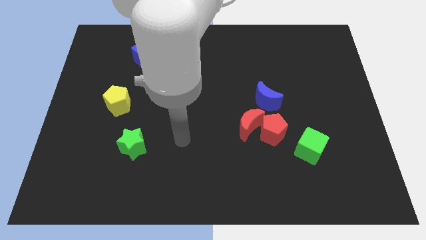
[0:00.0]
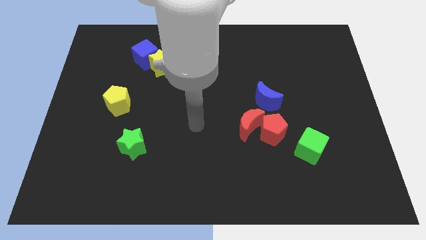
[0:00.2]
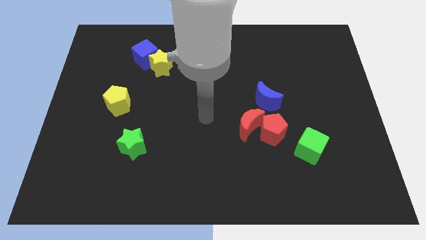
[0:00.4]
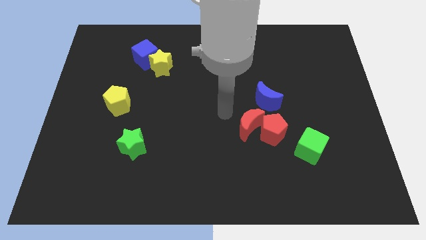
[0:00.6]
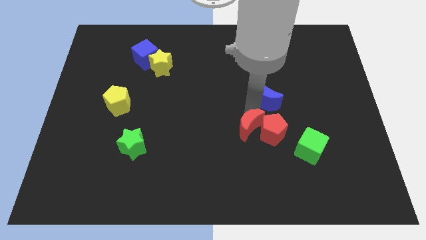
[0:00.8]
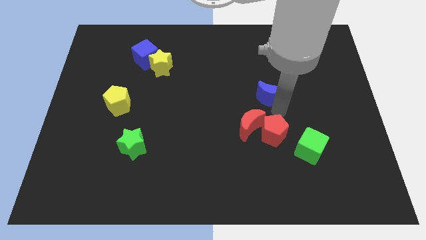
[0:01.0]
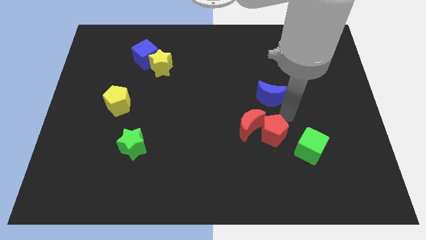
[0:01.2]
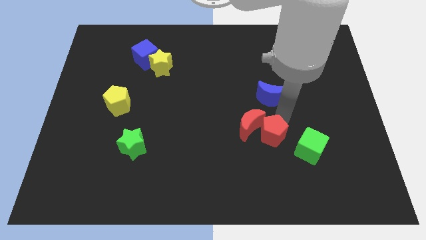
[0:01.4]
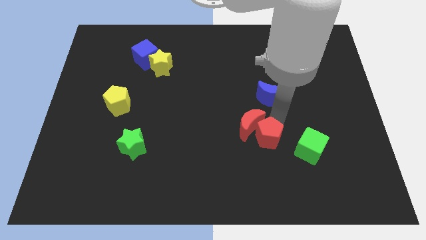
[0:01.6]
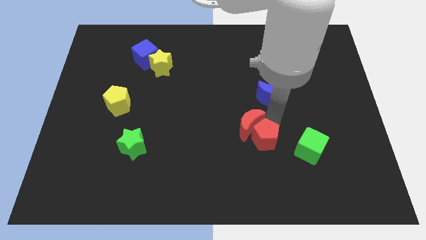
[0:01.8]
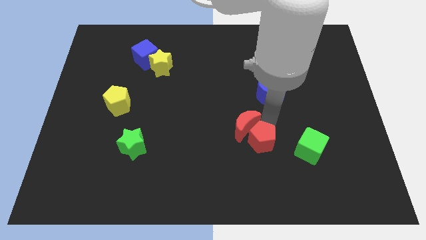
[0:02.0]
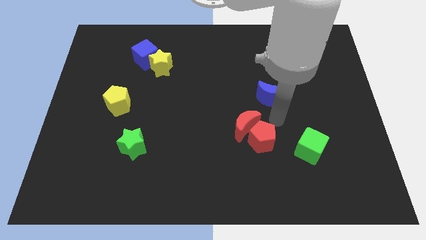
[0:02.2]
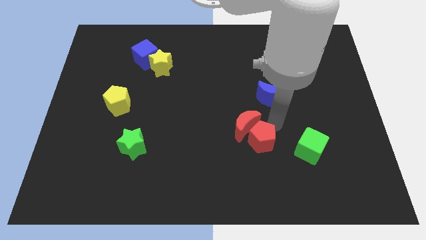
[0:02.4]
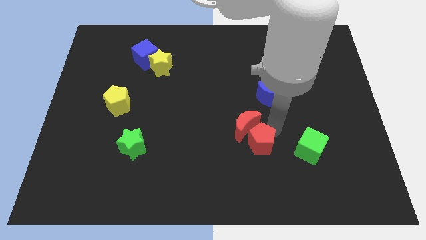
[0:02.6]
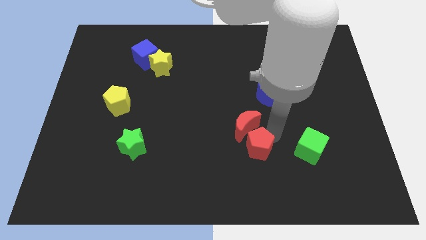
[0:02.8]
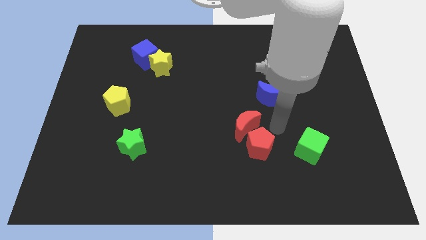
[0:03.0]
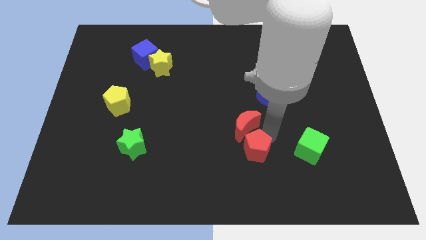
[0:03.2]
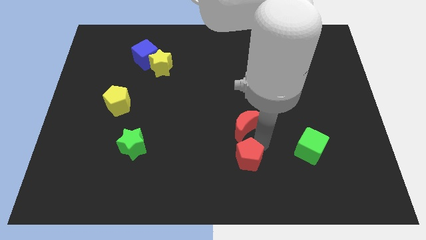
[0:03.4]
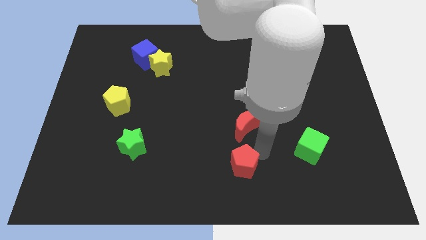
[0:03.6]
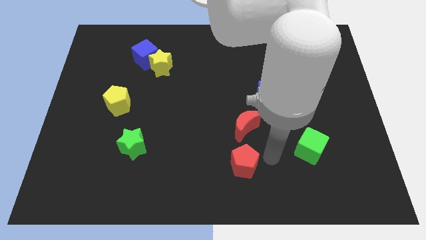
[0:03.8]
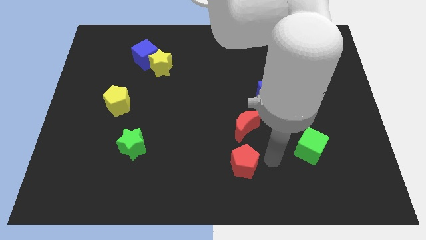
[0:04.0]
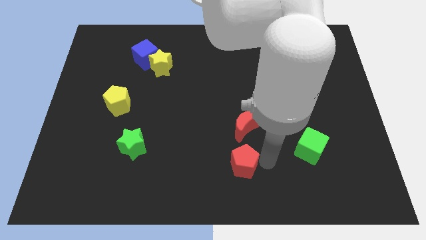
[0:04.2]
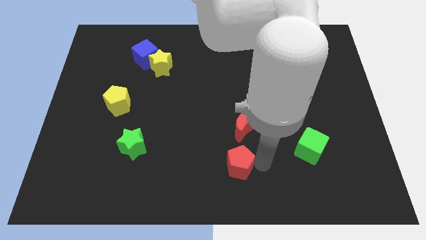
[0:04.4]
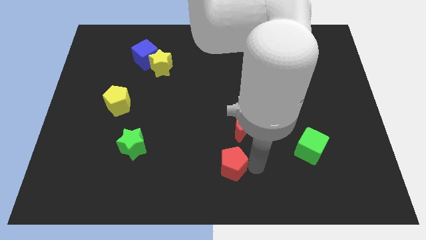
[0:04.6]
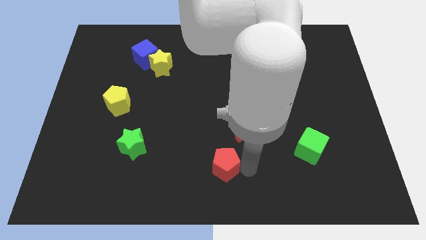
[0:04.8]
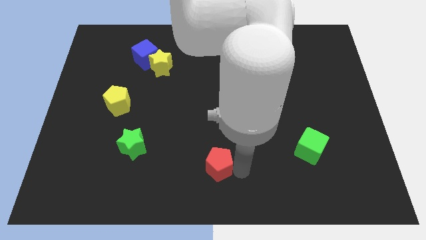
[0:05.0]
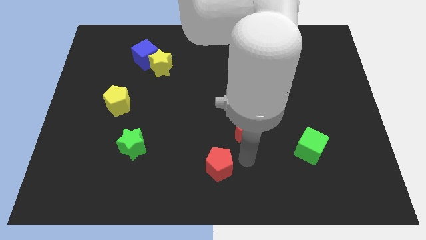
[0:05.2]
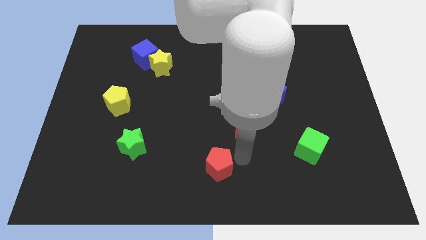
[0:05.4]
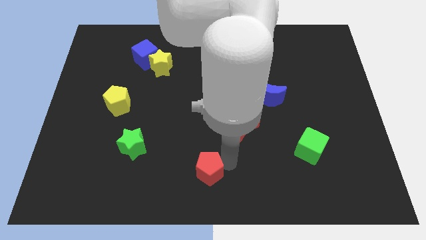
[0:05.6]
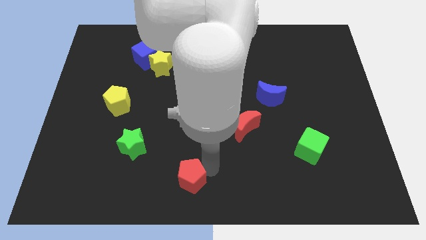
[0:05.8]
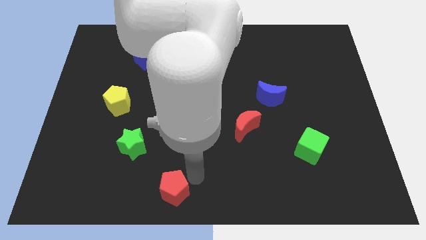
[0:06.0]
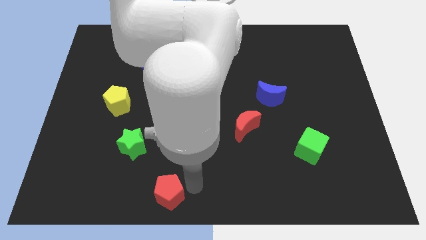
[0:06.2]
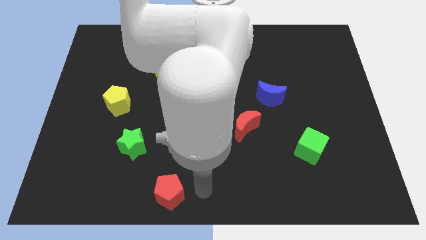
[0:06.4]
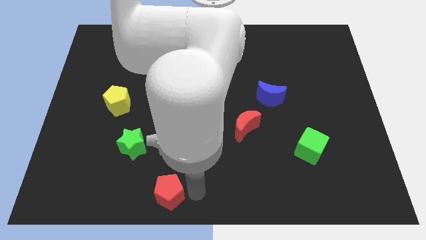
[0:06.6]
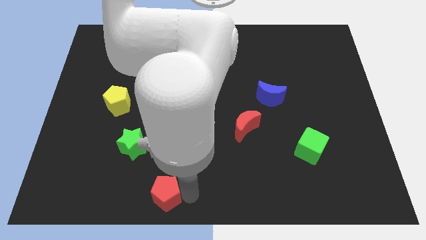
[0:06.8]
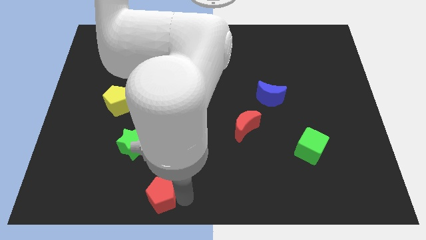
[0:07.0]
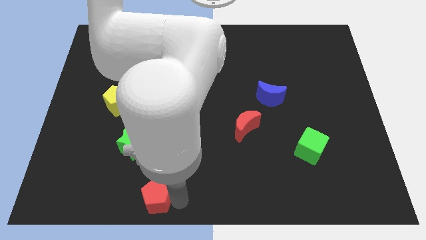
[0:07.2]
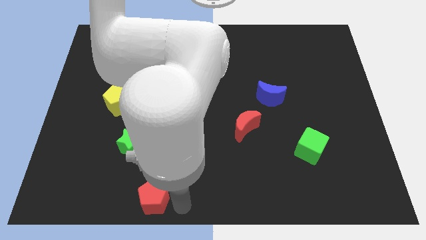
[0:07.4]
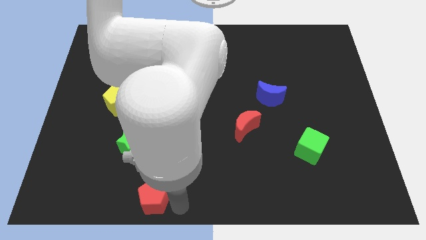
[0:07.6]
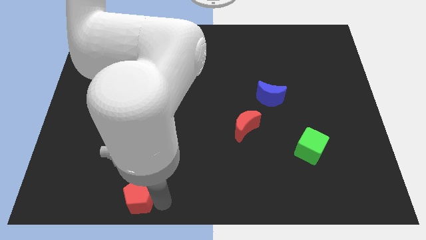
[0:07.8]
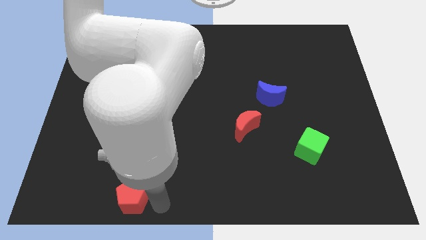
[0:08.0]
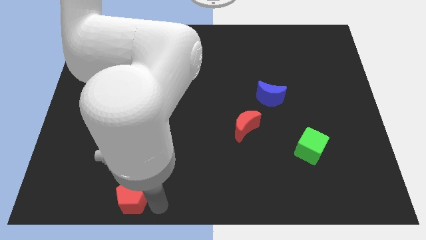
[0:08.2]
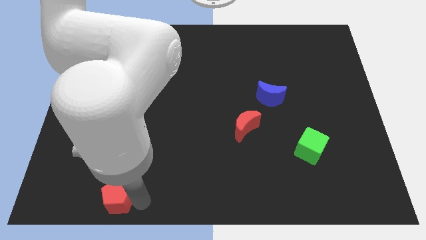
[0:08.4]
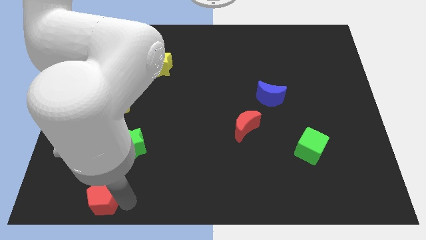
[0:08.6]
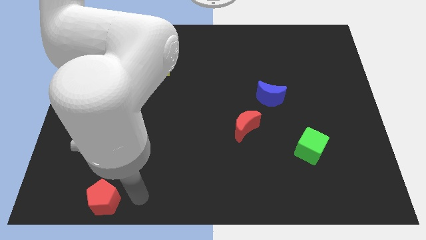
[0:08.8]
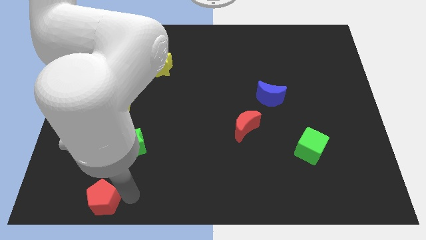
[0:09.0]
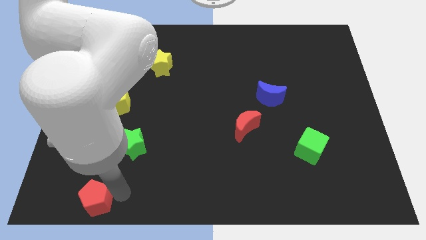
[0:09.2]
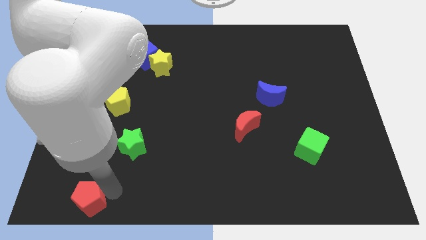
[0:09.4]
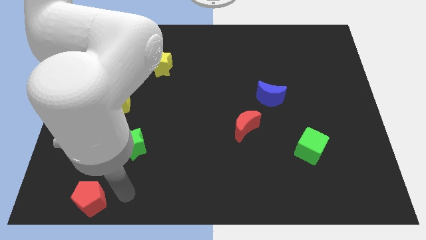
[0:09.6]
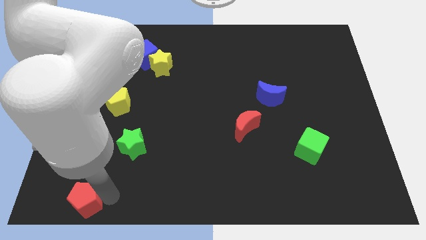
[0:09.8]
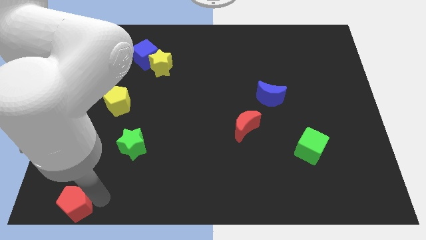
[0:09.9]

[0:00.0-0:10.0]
put the red pentagon to the bottom left corner

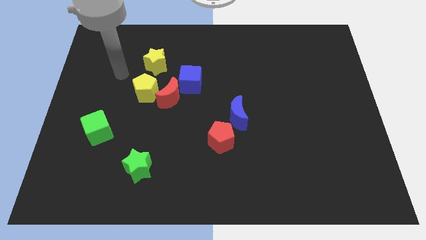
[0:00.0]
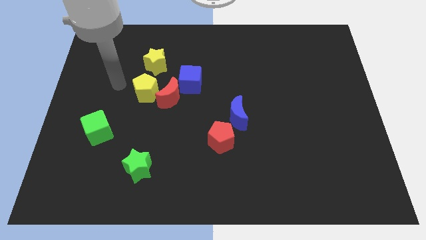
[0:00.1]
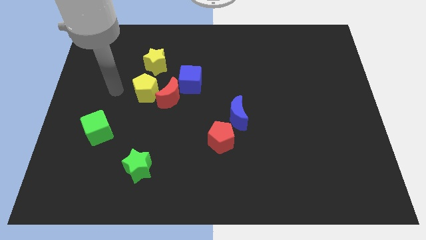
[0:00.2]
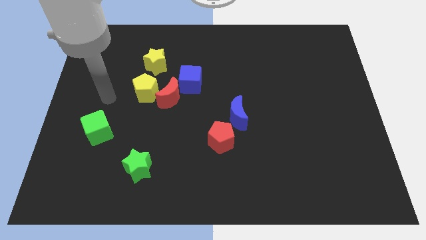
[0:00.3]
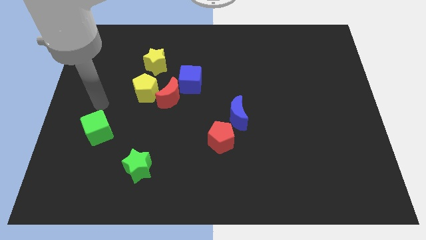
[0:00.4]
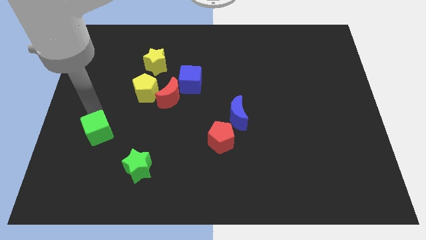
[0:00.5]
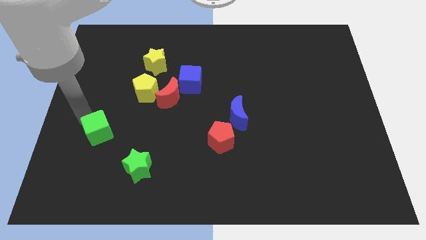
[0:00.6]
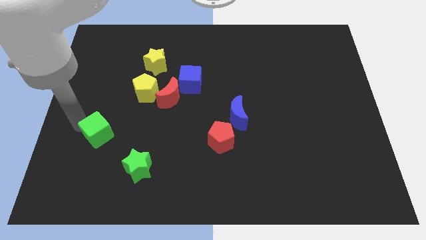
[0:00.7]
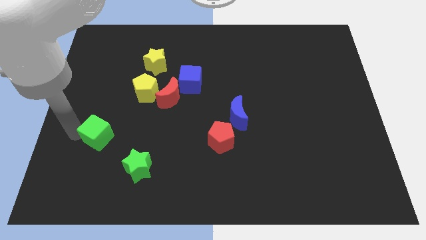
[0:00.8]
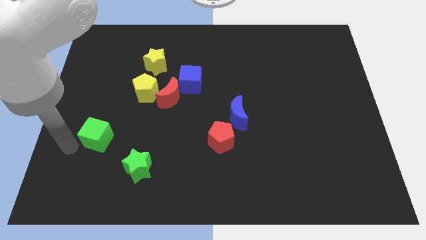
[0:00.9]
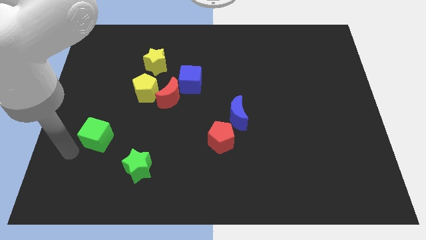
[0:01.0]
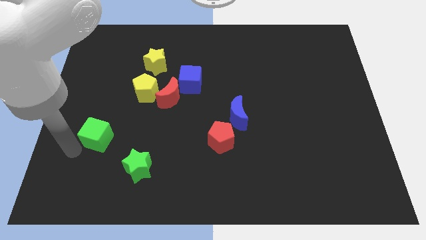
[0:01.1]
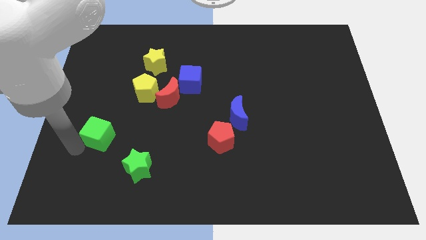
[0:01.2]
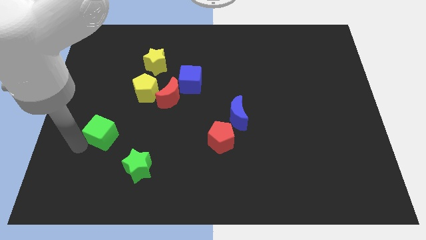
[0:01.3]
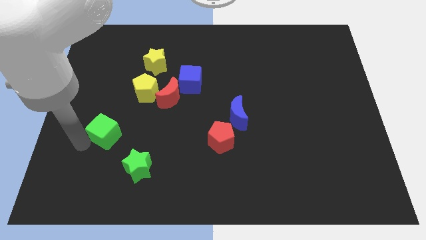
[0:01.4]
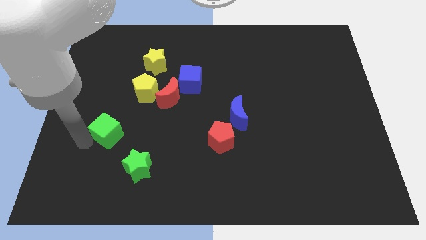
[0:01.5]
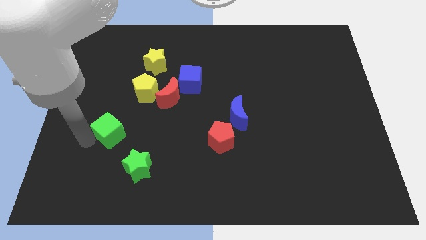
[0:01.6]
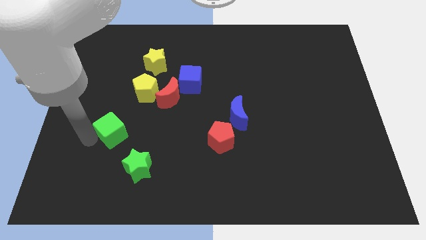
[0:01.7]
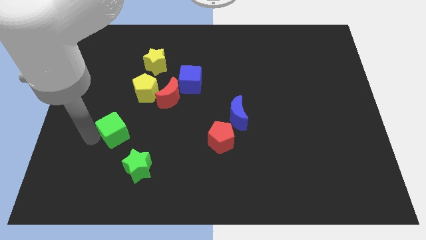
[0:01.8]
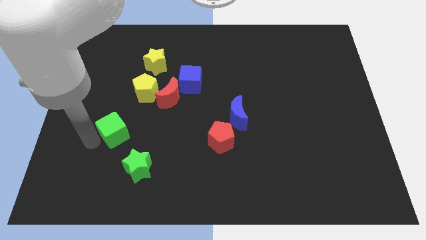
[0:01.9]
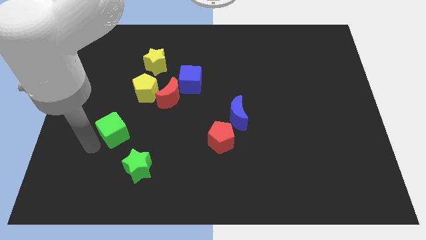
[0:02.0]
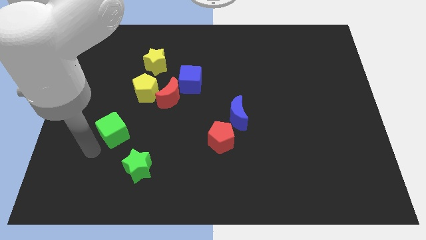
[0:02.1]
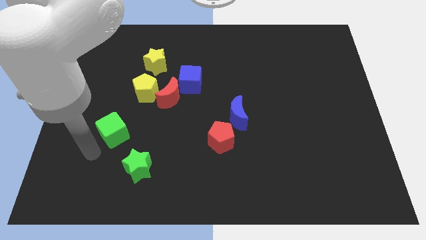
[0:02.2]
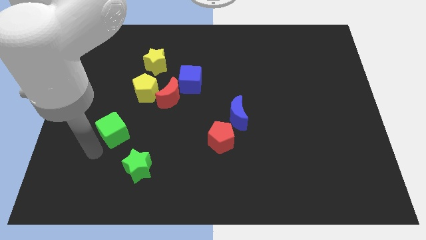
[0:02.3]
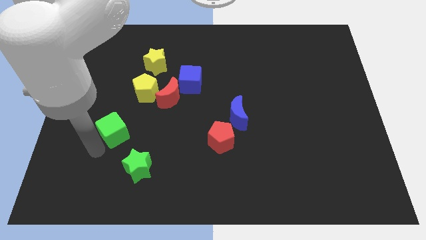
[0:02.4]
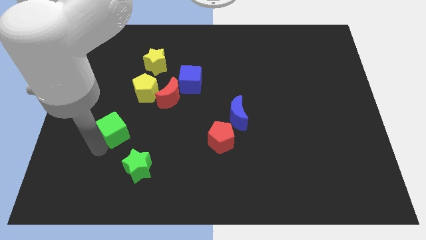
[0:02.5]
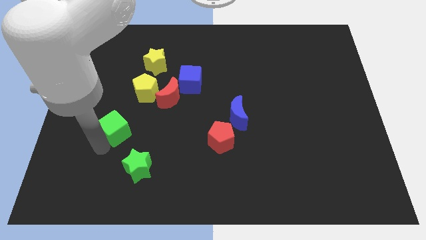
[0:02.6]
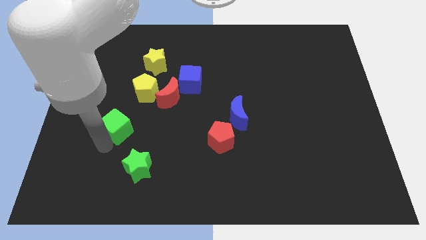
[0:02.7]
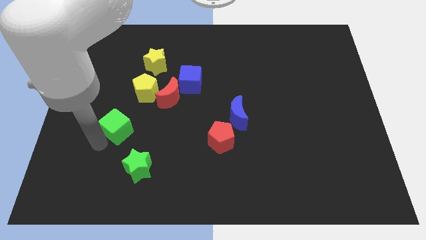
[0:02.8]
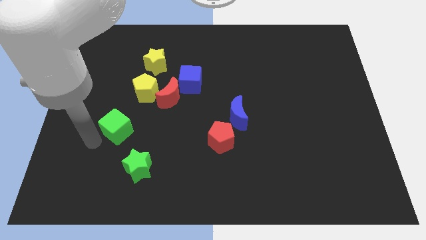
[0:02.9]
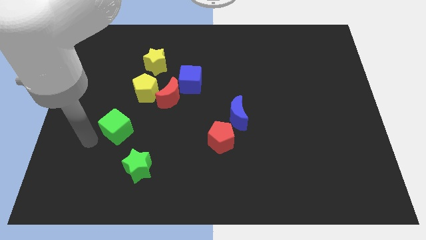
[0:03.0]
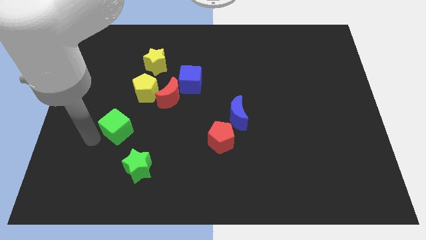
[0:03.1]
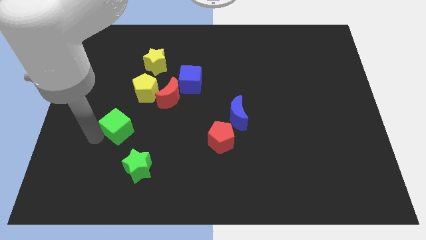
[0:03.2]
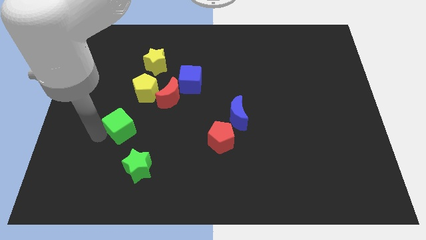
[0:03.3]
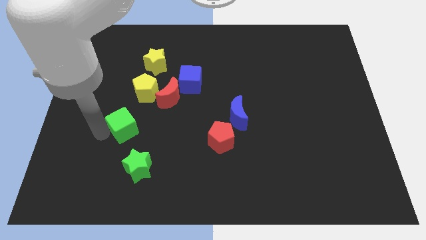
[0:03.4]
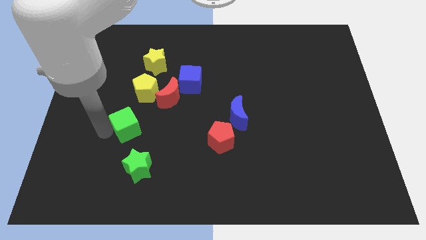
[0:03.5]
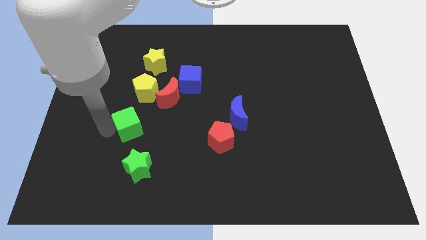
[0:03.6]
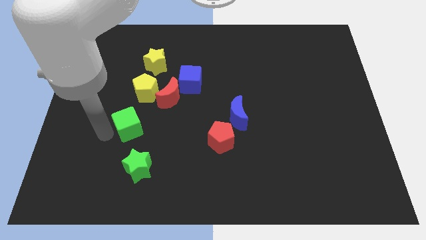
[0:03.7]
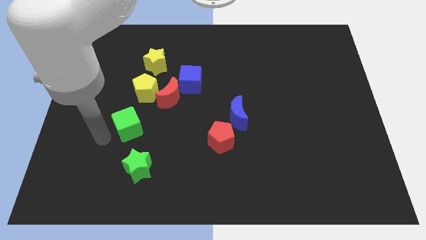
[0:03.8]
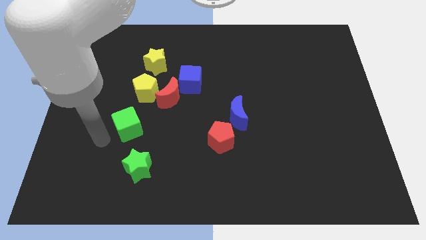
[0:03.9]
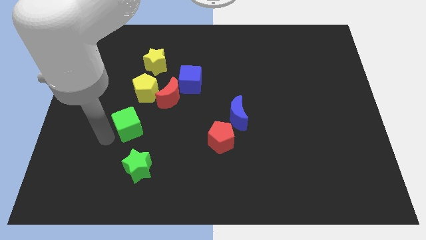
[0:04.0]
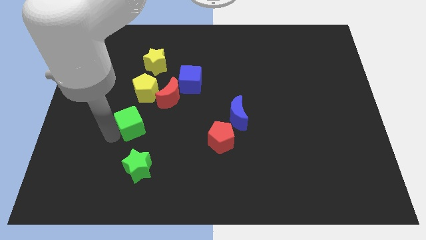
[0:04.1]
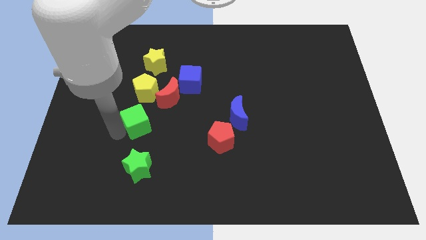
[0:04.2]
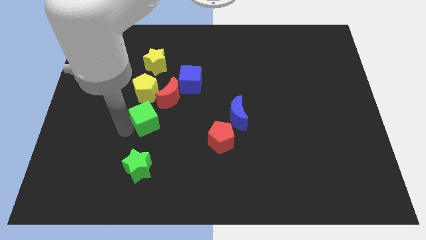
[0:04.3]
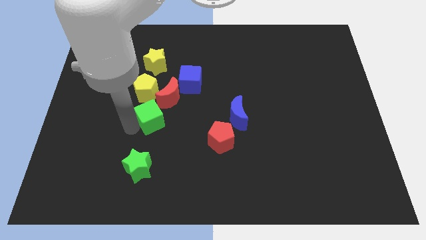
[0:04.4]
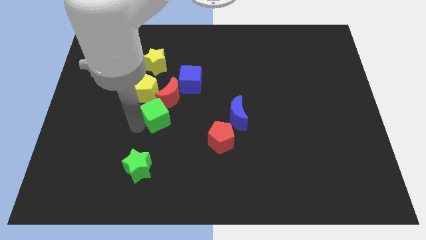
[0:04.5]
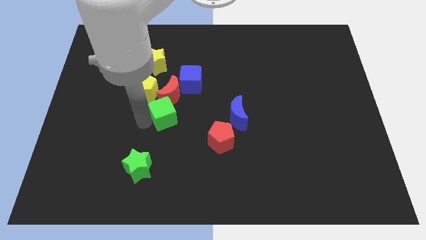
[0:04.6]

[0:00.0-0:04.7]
put the green cube to the center
